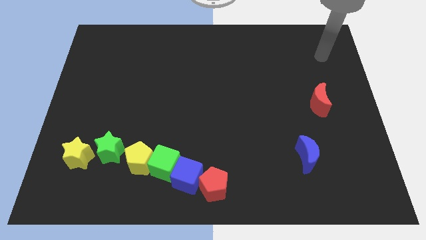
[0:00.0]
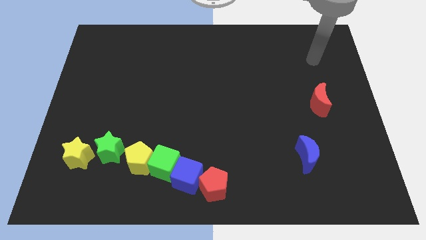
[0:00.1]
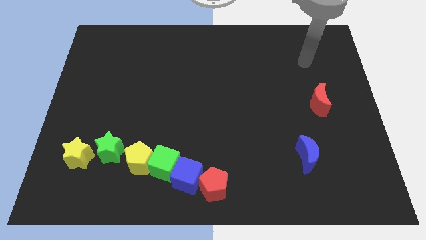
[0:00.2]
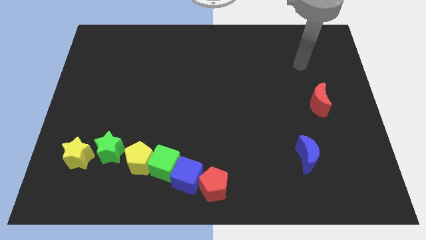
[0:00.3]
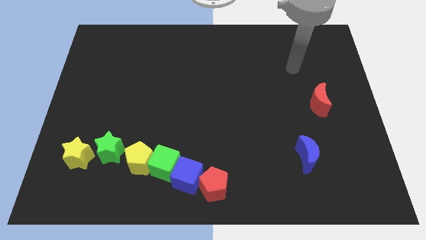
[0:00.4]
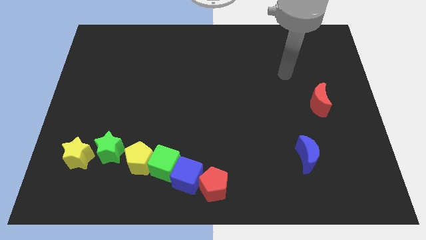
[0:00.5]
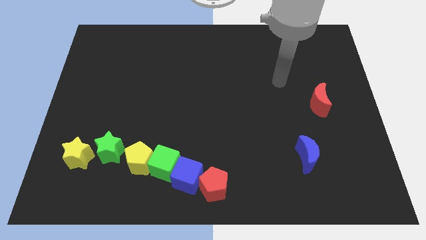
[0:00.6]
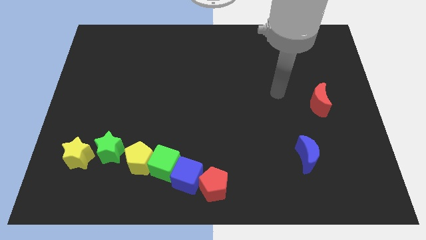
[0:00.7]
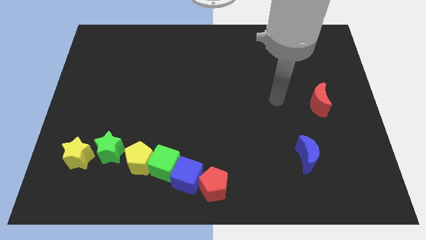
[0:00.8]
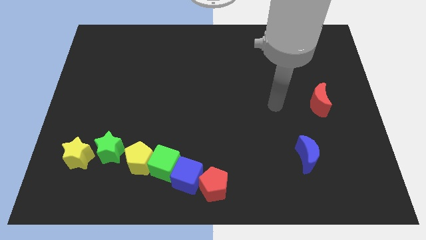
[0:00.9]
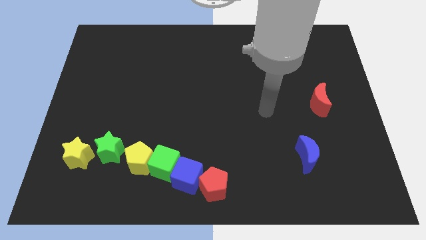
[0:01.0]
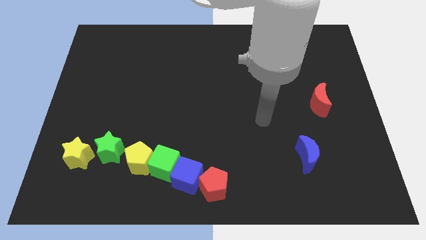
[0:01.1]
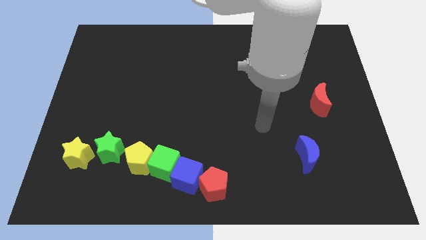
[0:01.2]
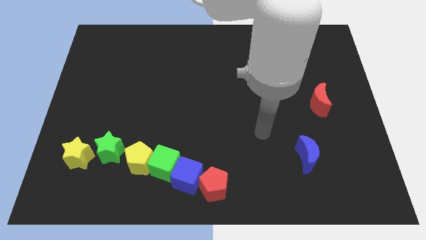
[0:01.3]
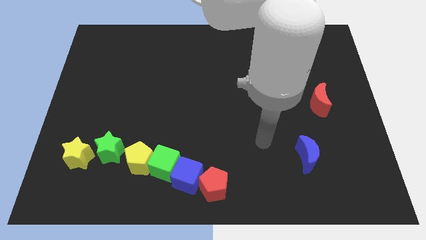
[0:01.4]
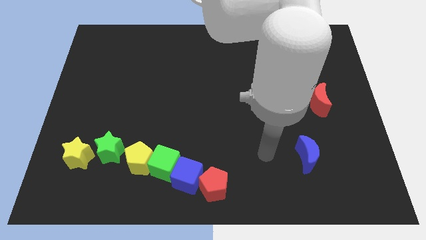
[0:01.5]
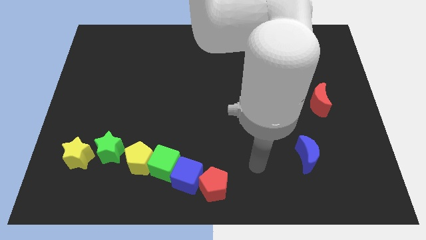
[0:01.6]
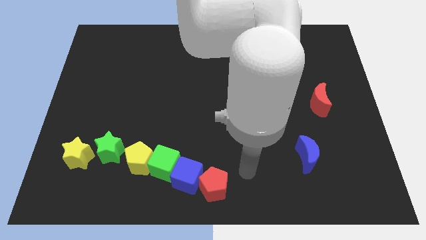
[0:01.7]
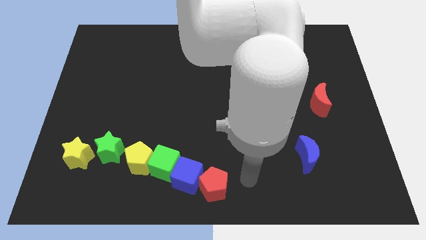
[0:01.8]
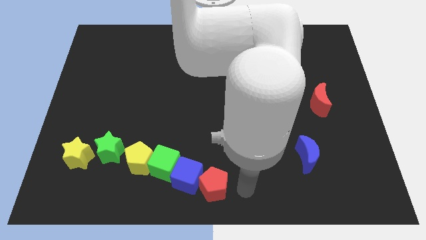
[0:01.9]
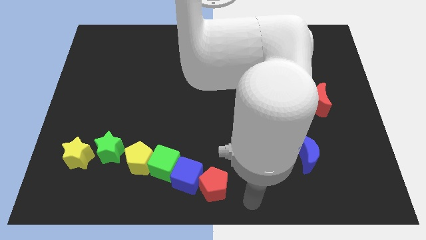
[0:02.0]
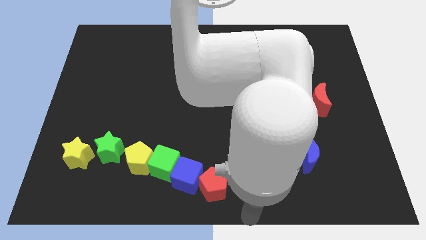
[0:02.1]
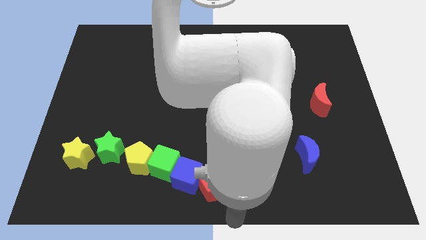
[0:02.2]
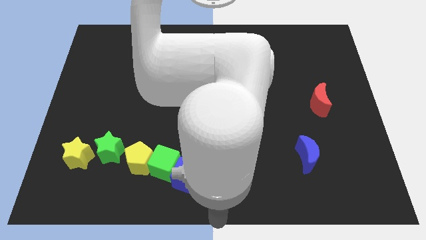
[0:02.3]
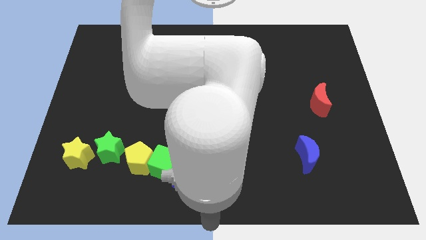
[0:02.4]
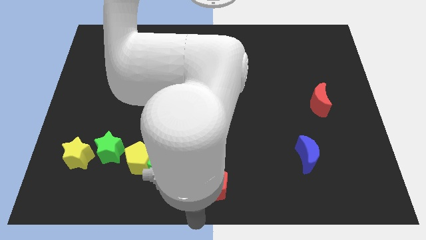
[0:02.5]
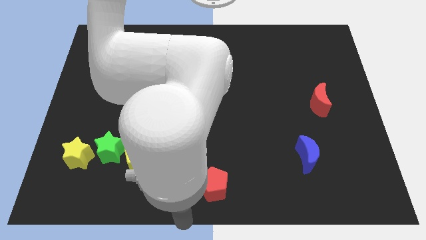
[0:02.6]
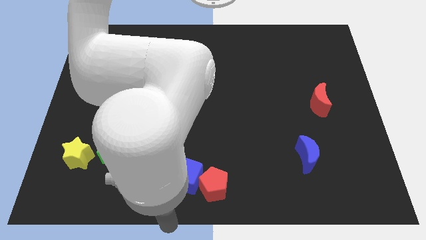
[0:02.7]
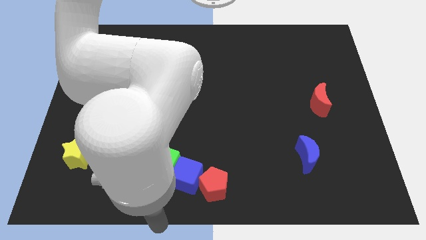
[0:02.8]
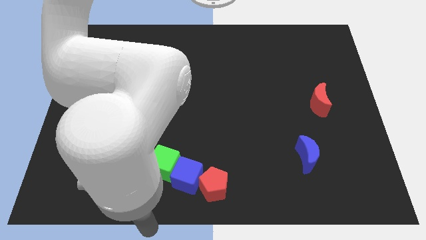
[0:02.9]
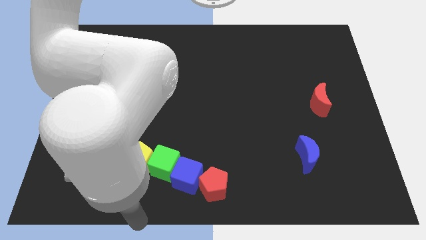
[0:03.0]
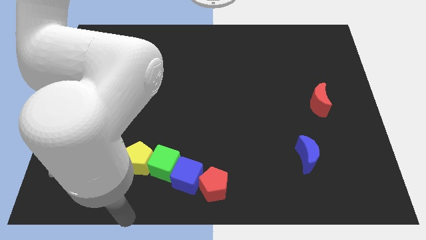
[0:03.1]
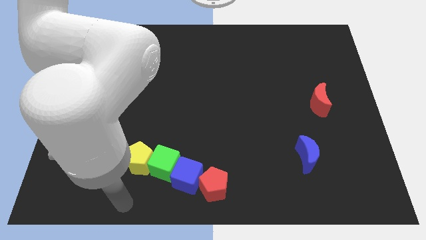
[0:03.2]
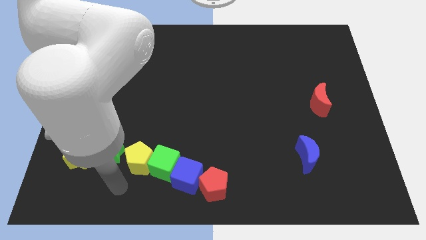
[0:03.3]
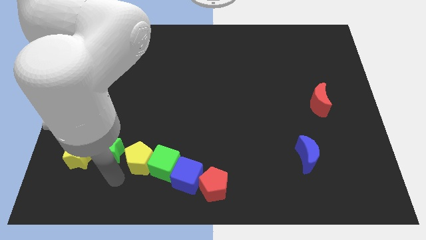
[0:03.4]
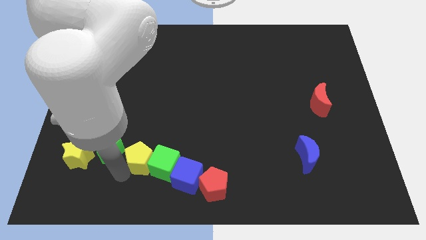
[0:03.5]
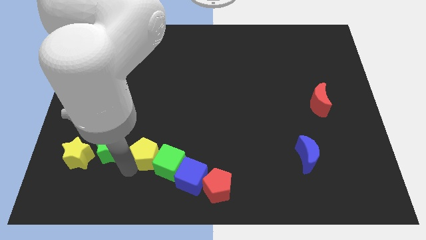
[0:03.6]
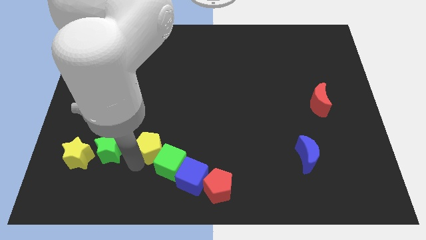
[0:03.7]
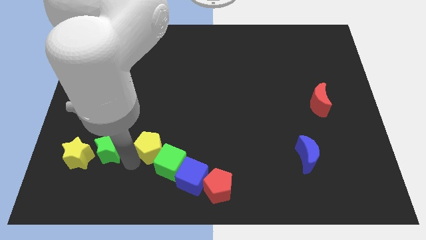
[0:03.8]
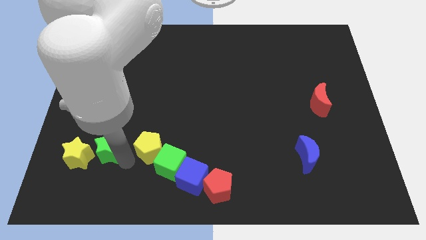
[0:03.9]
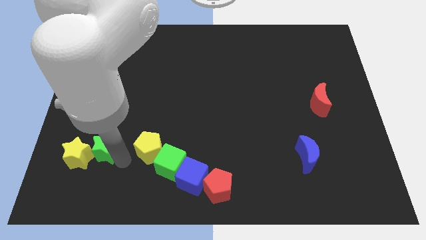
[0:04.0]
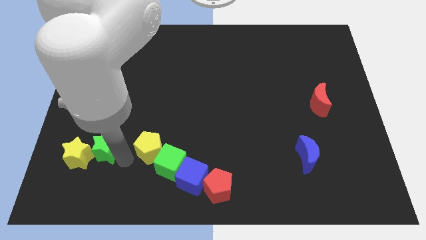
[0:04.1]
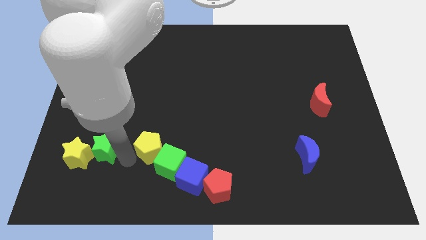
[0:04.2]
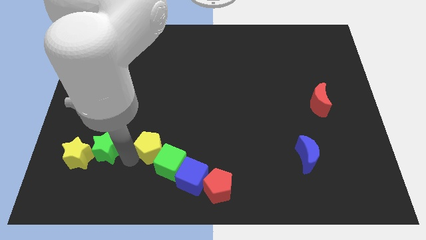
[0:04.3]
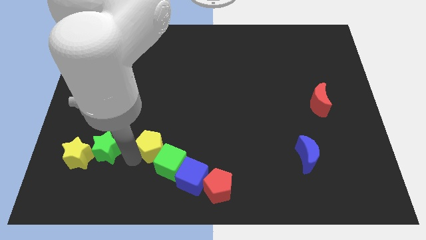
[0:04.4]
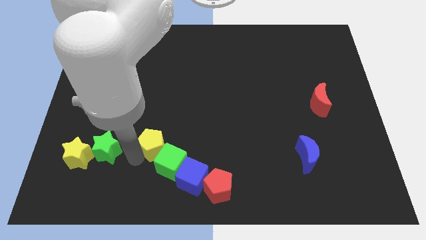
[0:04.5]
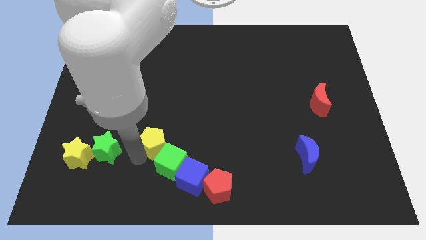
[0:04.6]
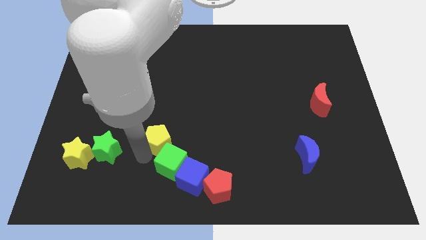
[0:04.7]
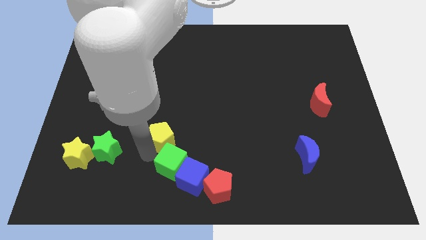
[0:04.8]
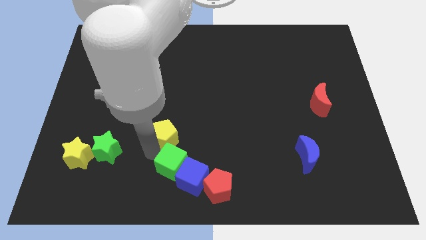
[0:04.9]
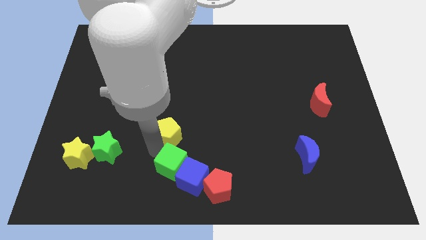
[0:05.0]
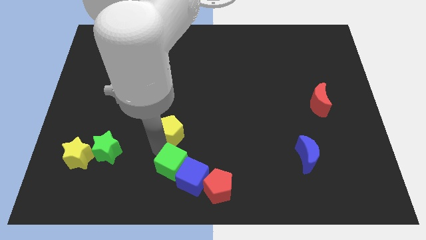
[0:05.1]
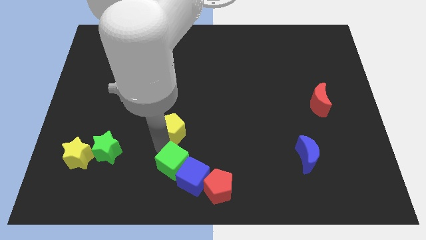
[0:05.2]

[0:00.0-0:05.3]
push the yellow pentagon to the middle of the board

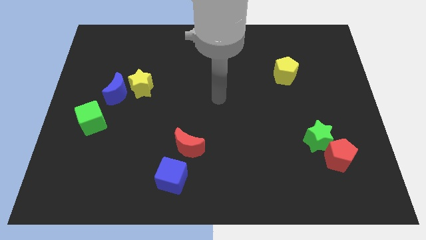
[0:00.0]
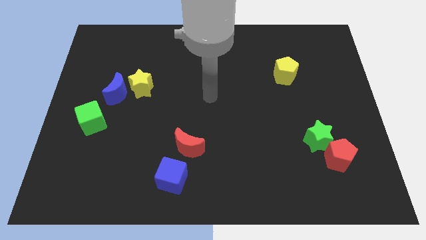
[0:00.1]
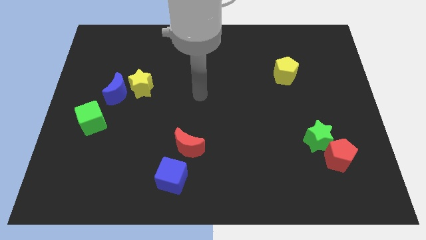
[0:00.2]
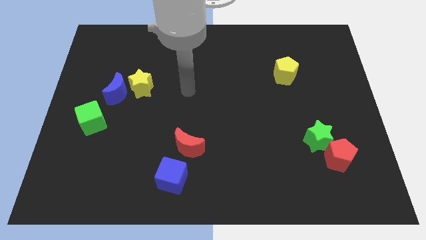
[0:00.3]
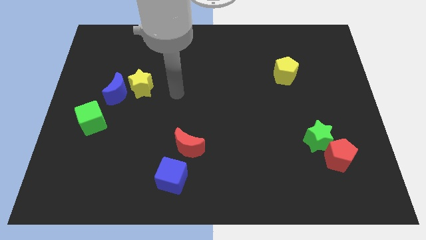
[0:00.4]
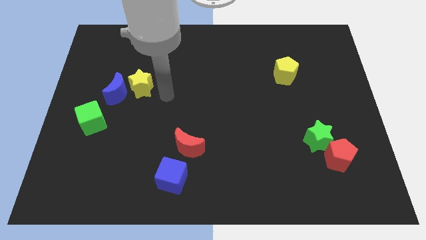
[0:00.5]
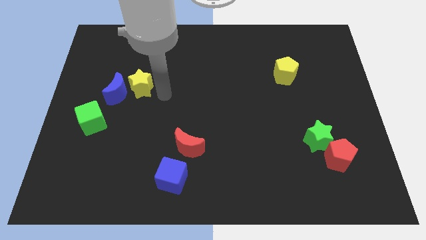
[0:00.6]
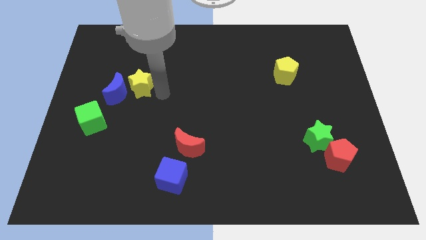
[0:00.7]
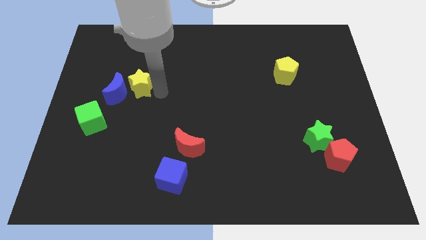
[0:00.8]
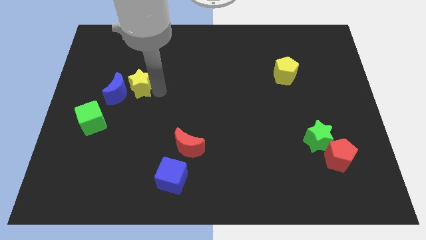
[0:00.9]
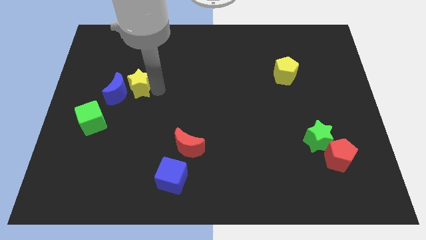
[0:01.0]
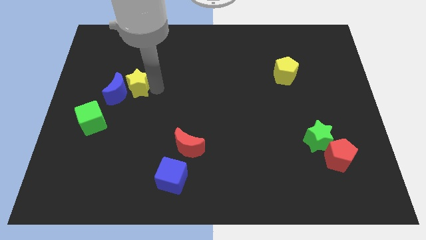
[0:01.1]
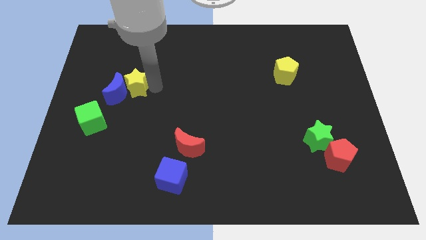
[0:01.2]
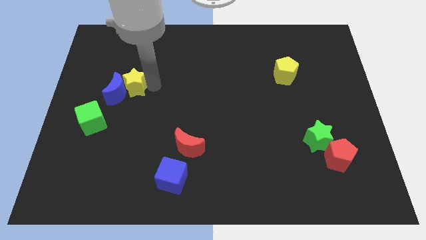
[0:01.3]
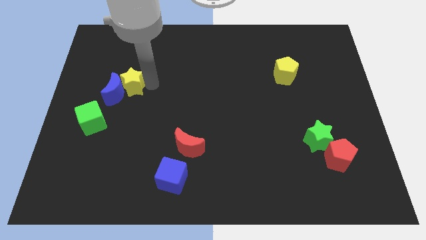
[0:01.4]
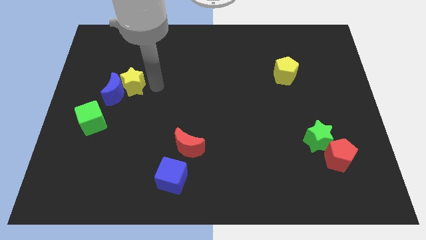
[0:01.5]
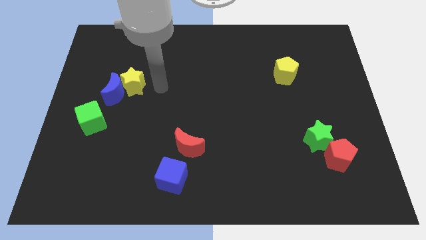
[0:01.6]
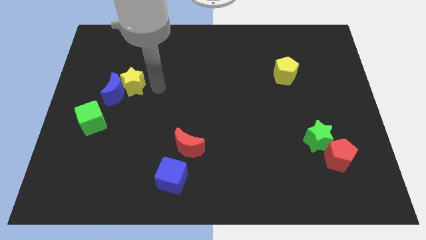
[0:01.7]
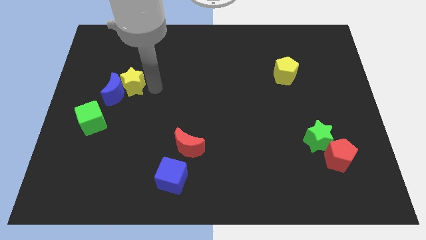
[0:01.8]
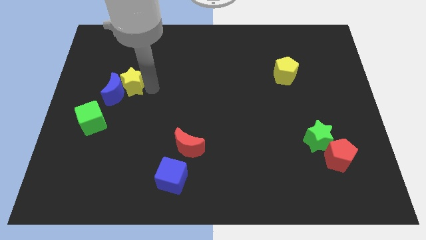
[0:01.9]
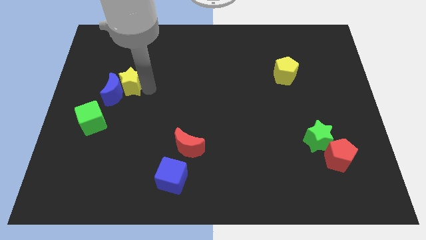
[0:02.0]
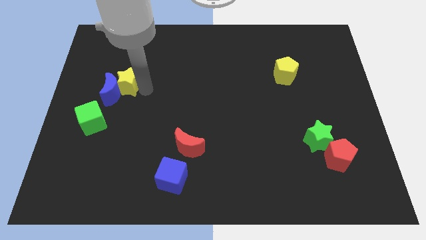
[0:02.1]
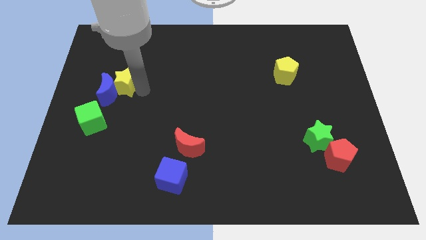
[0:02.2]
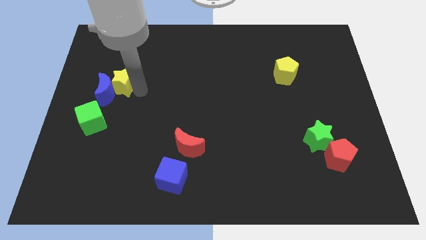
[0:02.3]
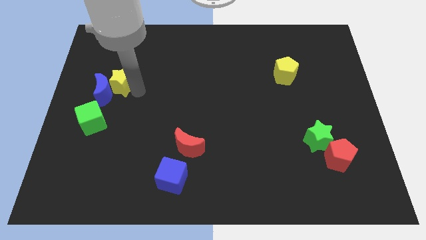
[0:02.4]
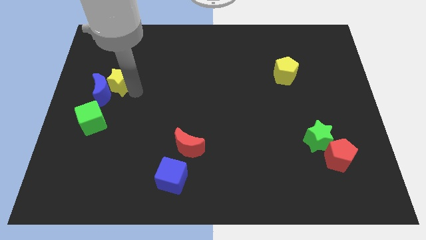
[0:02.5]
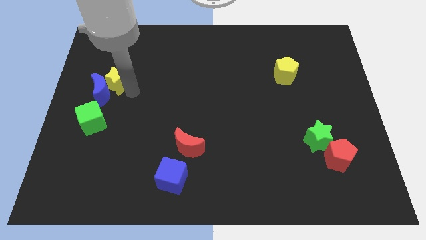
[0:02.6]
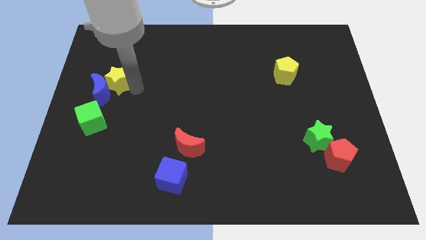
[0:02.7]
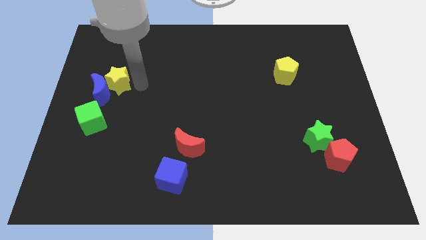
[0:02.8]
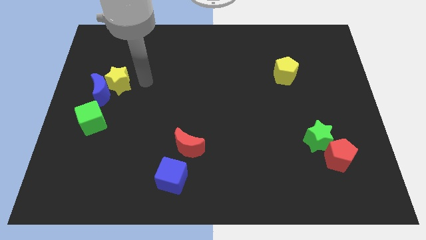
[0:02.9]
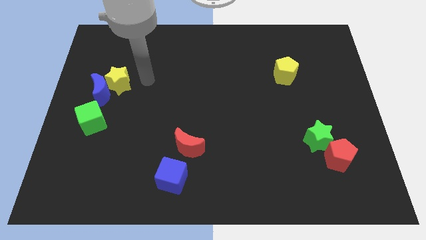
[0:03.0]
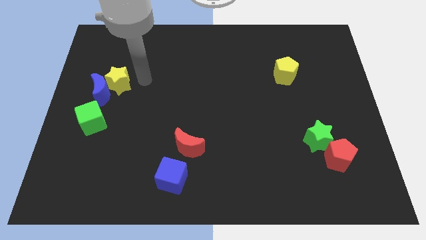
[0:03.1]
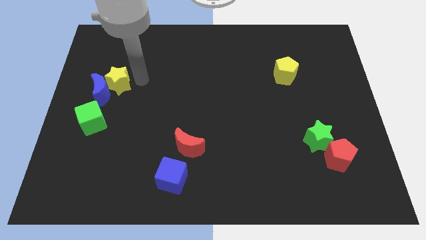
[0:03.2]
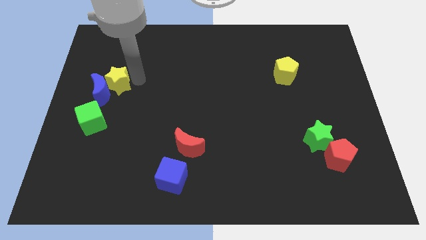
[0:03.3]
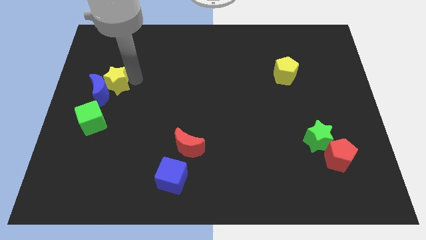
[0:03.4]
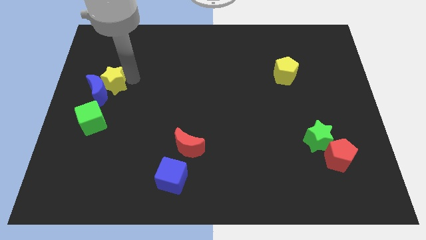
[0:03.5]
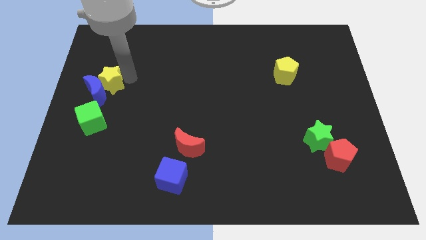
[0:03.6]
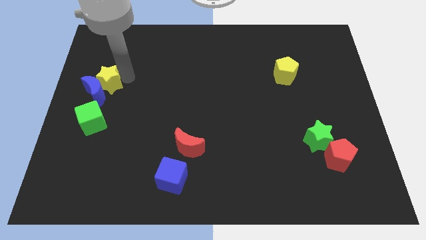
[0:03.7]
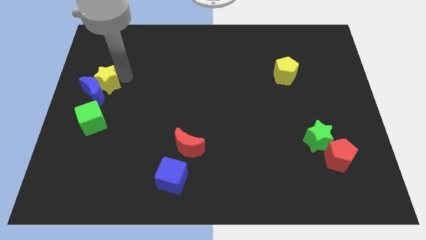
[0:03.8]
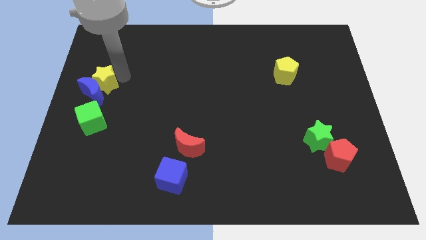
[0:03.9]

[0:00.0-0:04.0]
slide the yellow star to the center left
